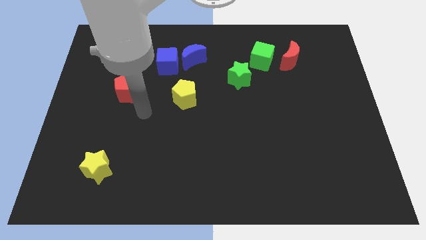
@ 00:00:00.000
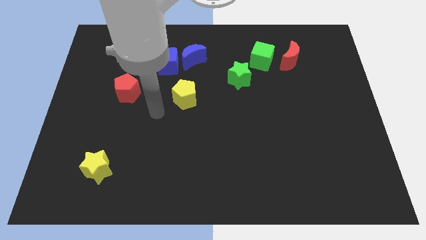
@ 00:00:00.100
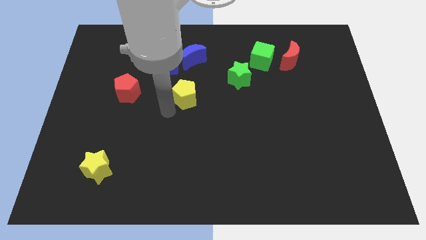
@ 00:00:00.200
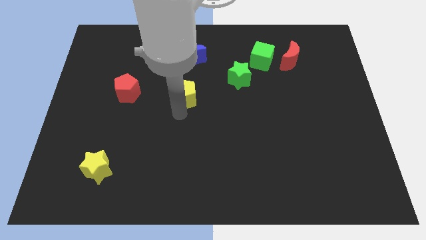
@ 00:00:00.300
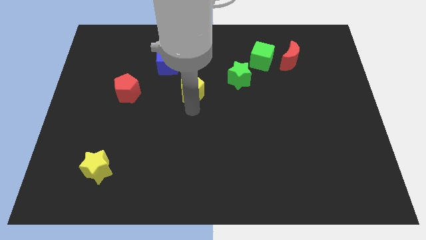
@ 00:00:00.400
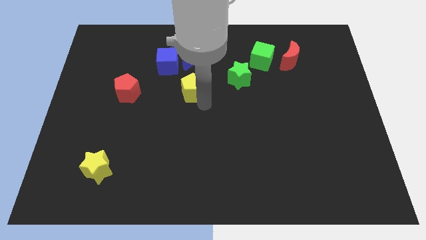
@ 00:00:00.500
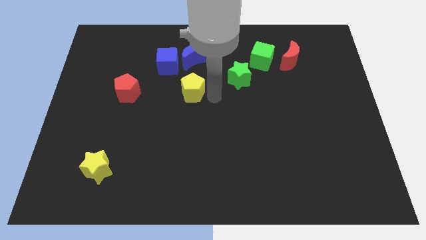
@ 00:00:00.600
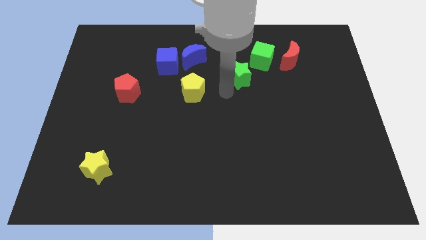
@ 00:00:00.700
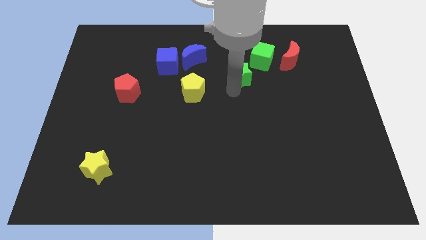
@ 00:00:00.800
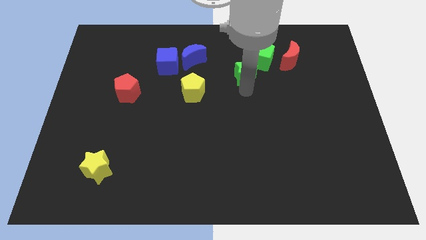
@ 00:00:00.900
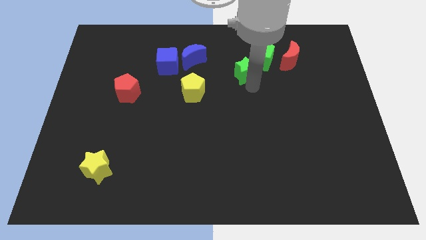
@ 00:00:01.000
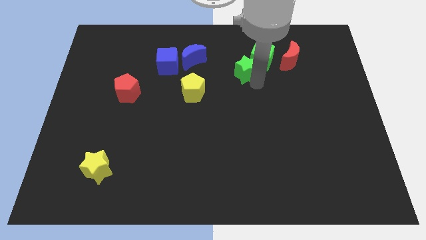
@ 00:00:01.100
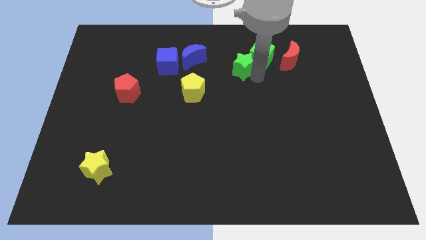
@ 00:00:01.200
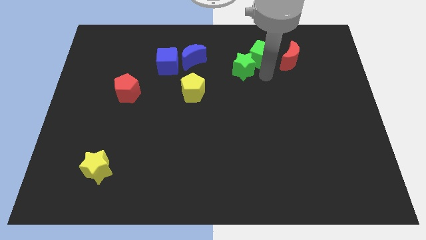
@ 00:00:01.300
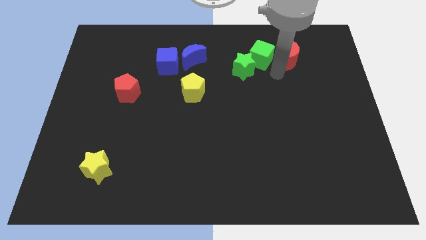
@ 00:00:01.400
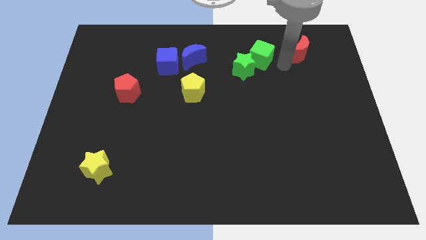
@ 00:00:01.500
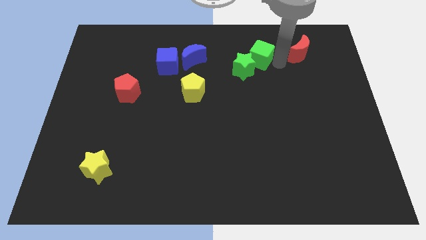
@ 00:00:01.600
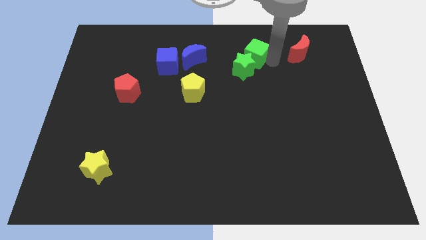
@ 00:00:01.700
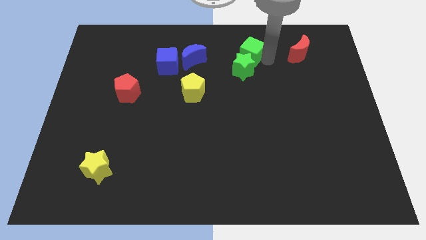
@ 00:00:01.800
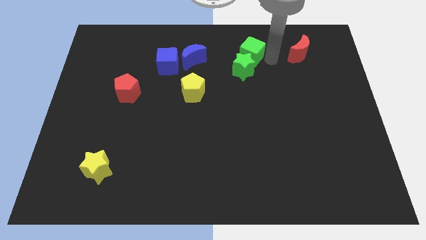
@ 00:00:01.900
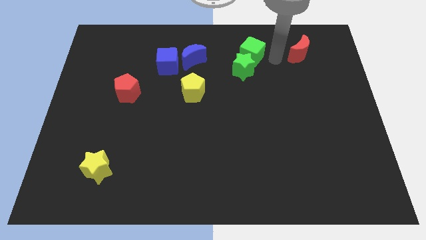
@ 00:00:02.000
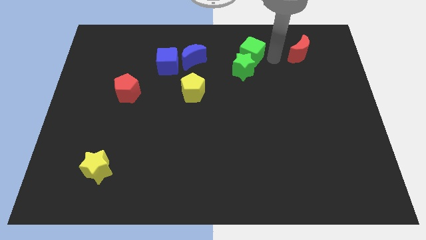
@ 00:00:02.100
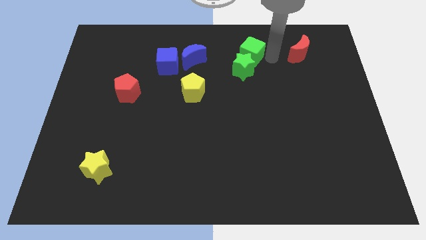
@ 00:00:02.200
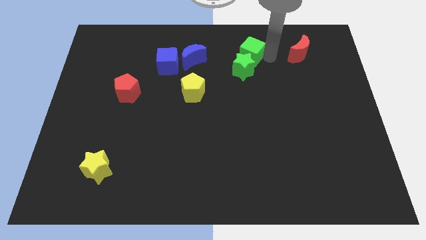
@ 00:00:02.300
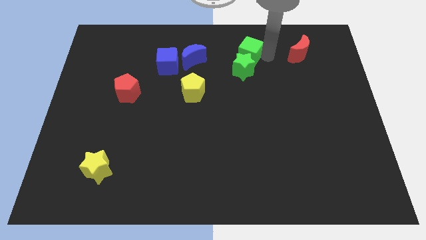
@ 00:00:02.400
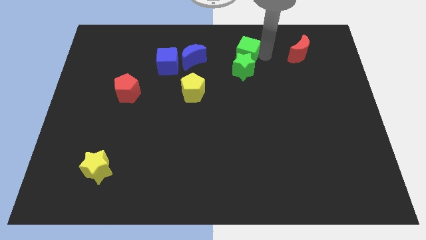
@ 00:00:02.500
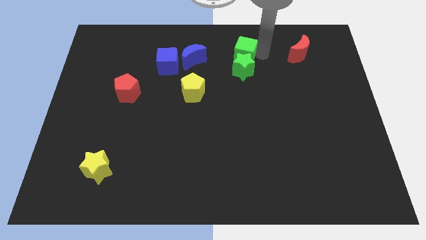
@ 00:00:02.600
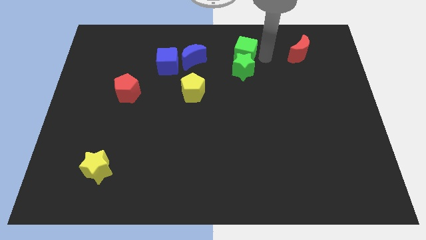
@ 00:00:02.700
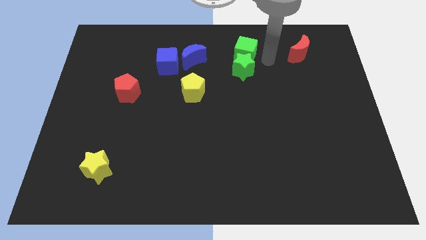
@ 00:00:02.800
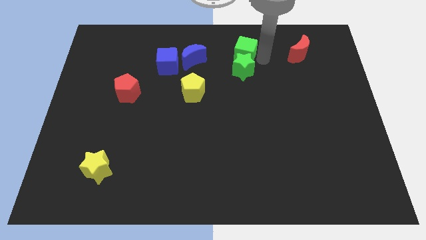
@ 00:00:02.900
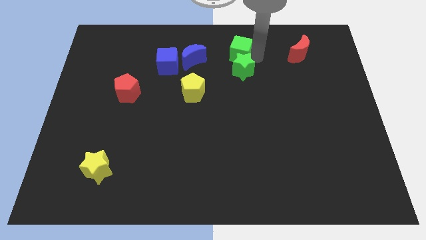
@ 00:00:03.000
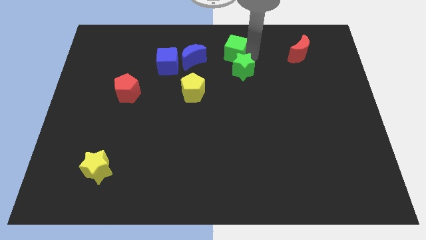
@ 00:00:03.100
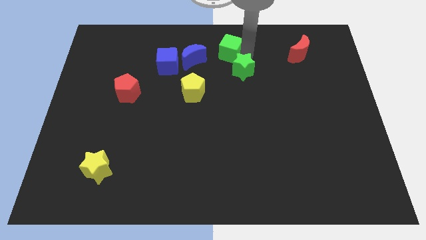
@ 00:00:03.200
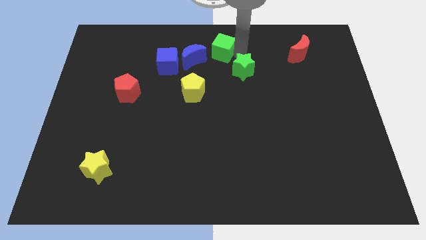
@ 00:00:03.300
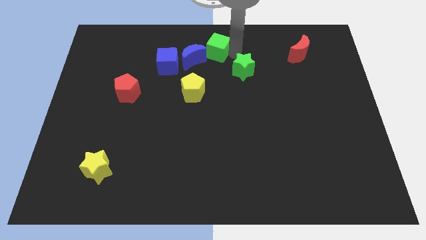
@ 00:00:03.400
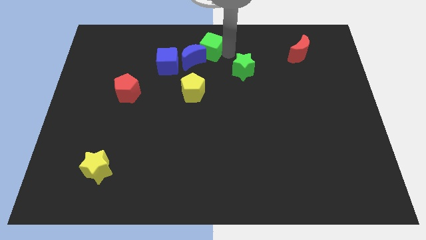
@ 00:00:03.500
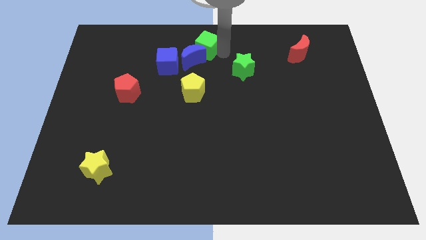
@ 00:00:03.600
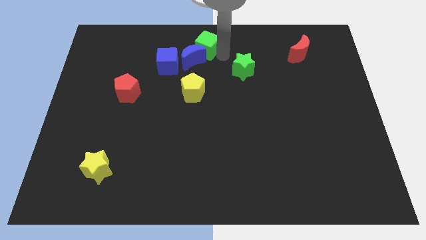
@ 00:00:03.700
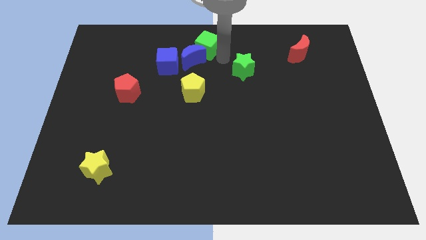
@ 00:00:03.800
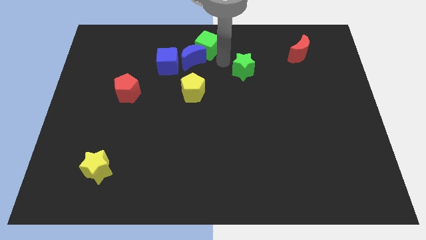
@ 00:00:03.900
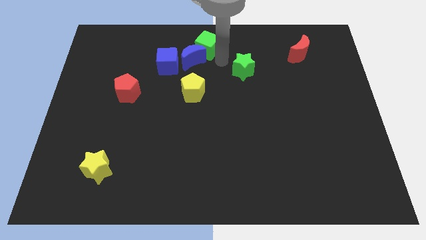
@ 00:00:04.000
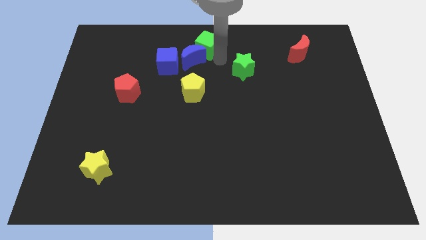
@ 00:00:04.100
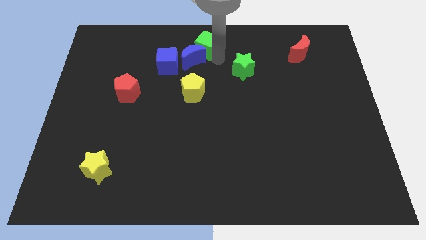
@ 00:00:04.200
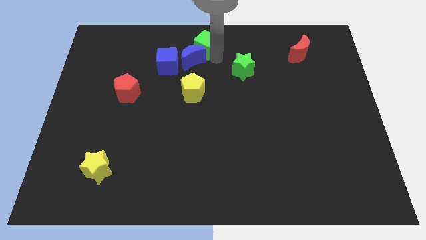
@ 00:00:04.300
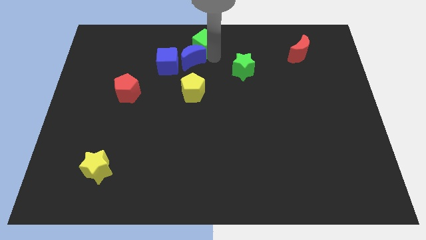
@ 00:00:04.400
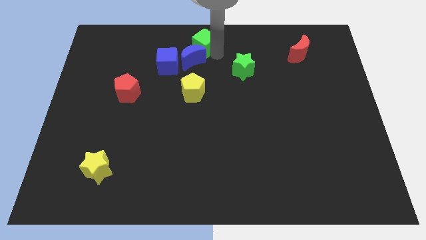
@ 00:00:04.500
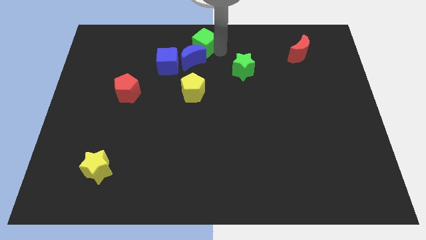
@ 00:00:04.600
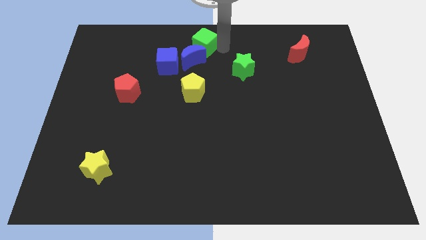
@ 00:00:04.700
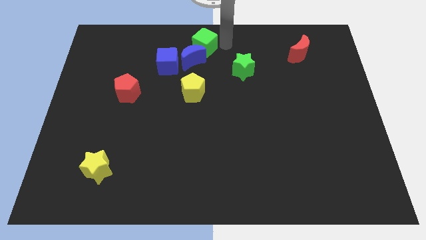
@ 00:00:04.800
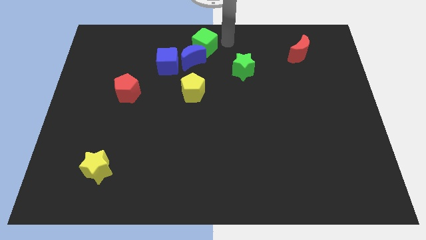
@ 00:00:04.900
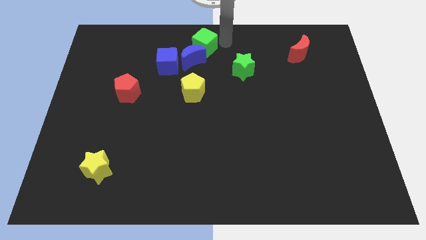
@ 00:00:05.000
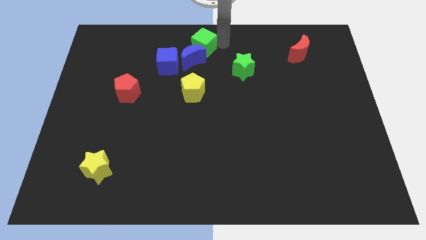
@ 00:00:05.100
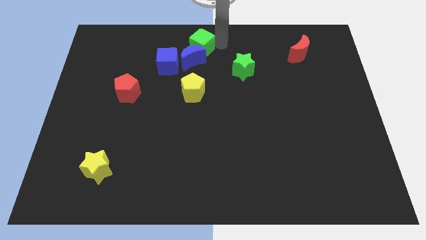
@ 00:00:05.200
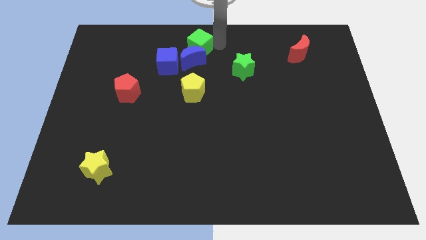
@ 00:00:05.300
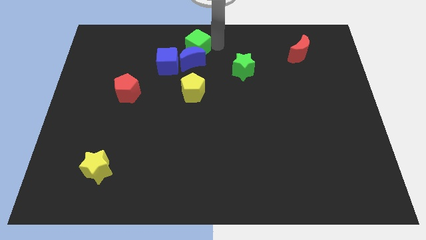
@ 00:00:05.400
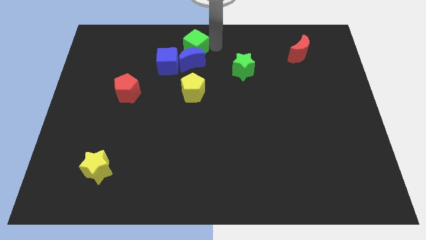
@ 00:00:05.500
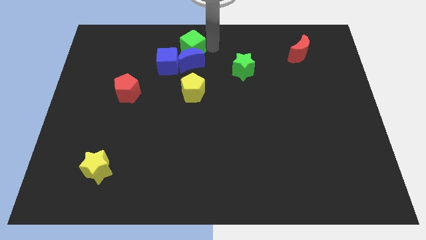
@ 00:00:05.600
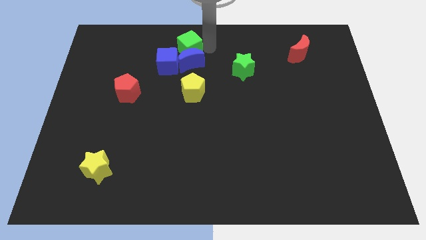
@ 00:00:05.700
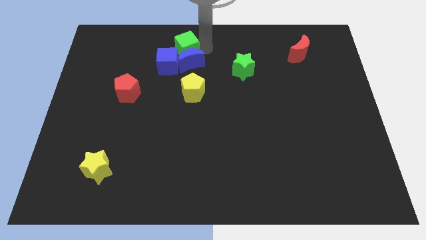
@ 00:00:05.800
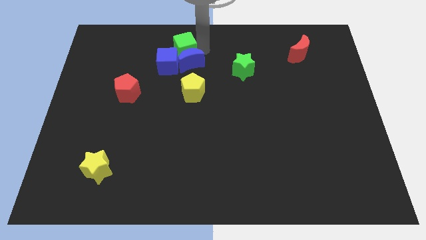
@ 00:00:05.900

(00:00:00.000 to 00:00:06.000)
move the green cube to the left

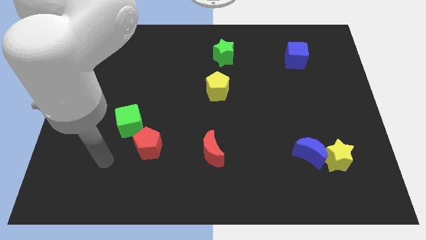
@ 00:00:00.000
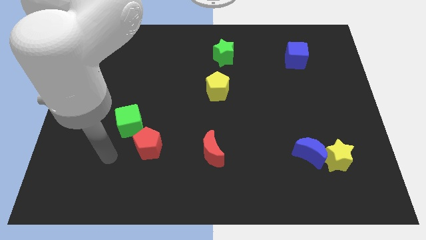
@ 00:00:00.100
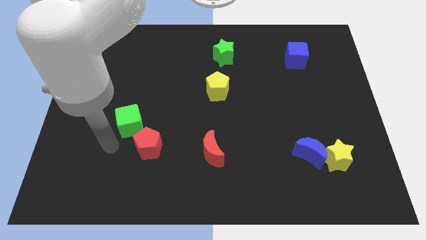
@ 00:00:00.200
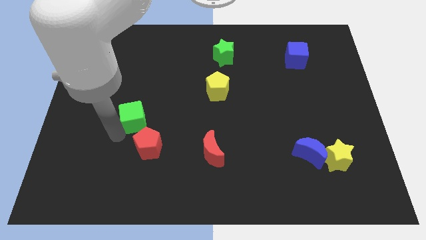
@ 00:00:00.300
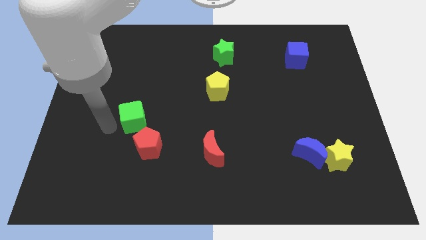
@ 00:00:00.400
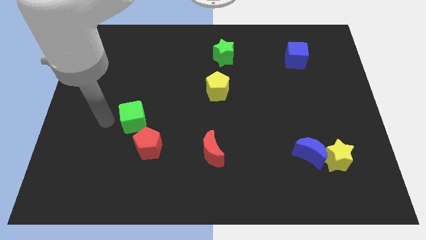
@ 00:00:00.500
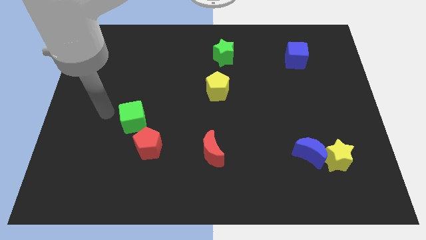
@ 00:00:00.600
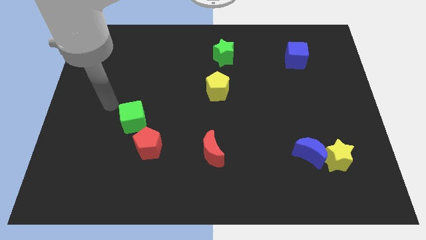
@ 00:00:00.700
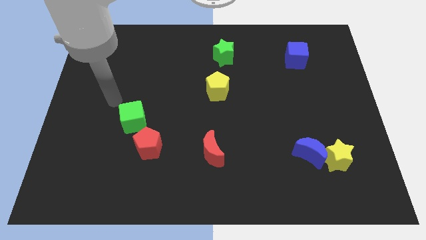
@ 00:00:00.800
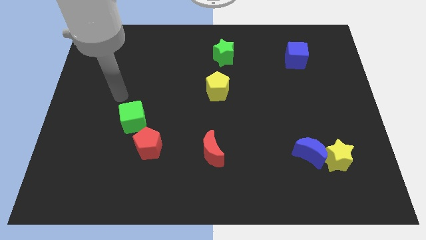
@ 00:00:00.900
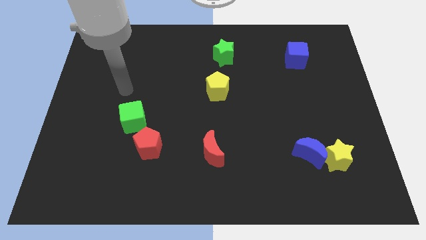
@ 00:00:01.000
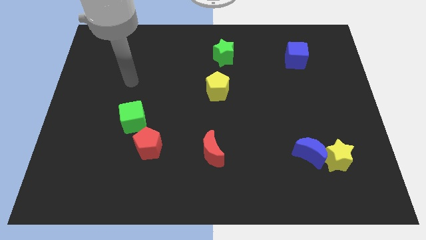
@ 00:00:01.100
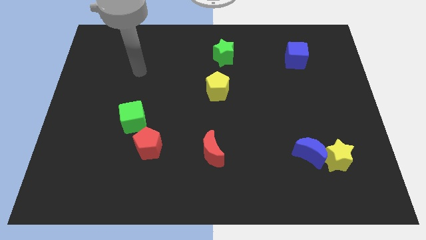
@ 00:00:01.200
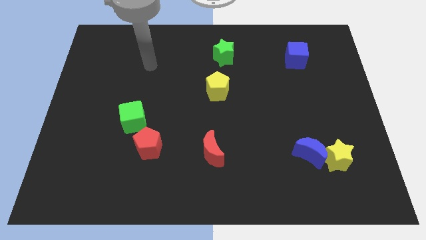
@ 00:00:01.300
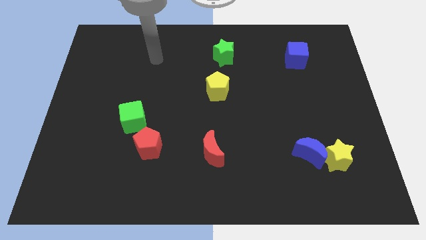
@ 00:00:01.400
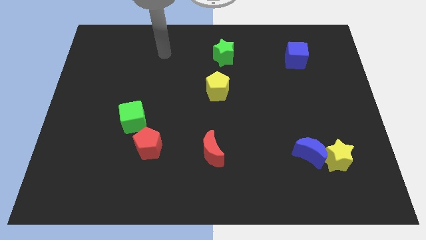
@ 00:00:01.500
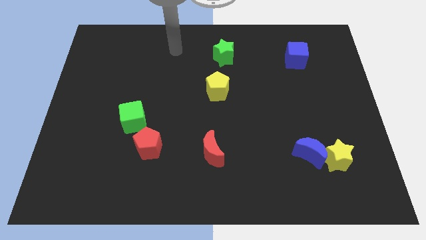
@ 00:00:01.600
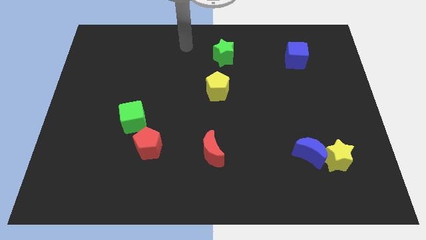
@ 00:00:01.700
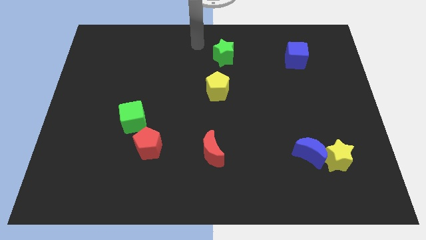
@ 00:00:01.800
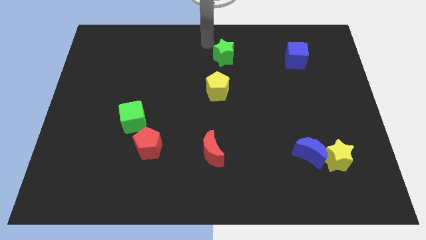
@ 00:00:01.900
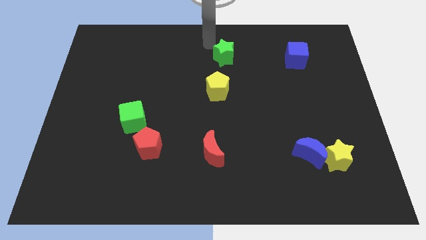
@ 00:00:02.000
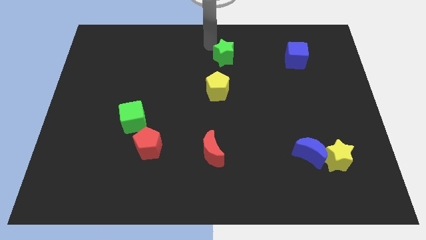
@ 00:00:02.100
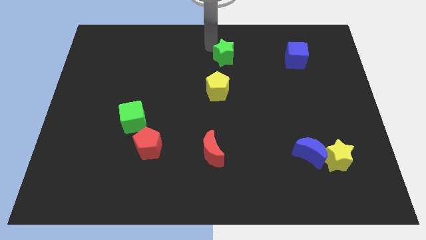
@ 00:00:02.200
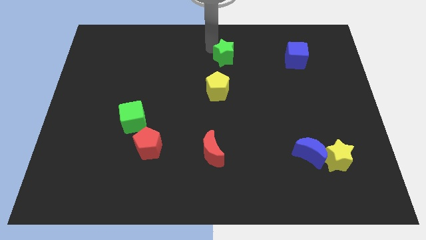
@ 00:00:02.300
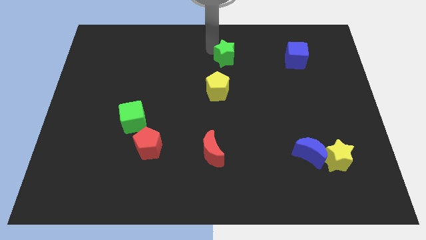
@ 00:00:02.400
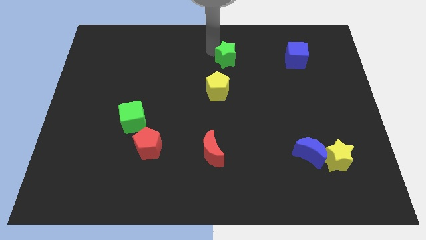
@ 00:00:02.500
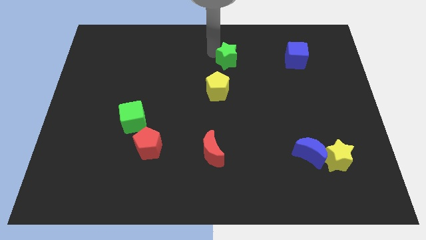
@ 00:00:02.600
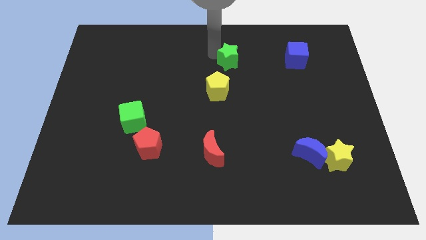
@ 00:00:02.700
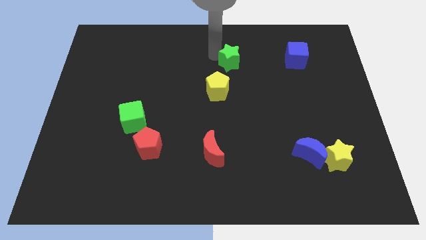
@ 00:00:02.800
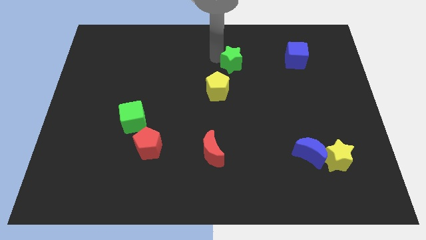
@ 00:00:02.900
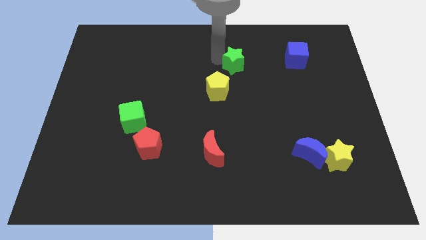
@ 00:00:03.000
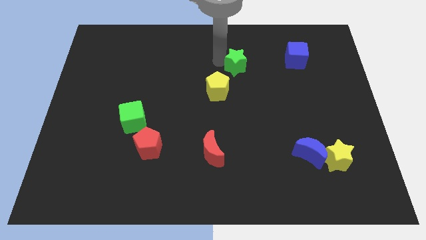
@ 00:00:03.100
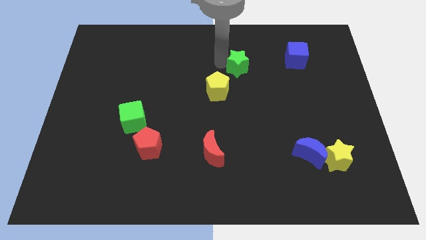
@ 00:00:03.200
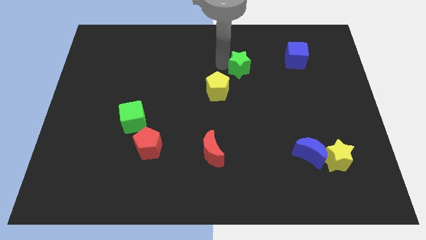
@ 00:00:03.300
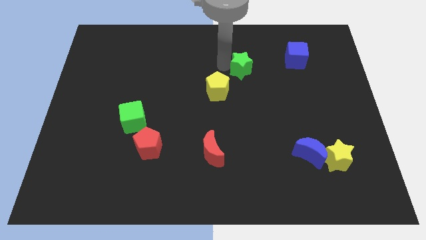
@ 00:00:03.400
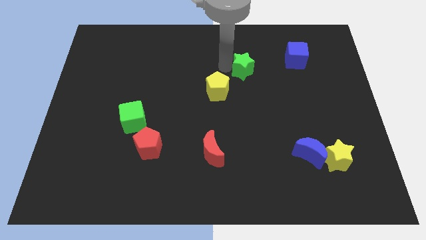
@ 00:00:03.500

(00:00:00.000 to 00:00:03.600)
slide the green star a little bit diagonally downwards and to the right
